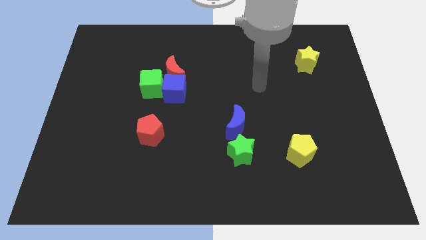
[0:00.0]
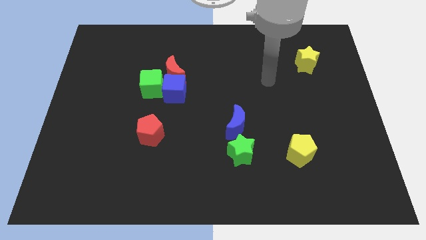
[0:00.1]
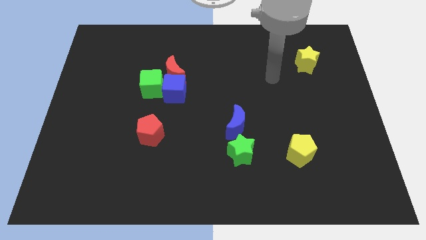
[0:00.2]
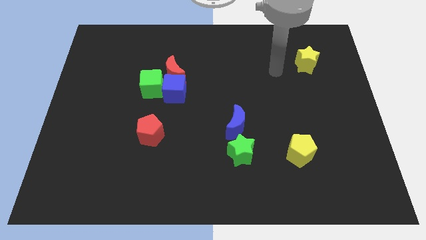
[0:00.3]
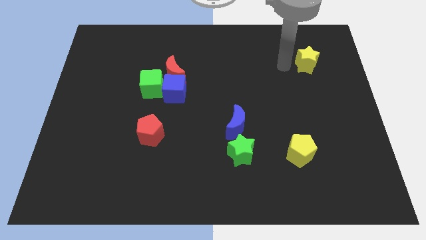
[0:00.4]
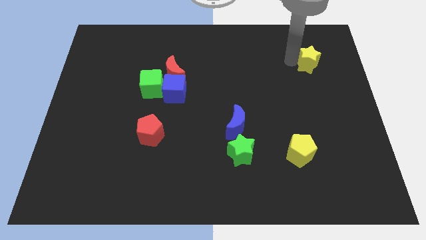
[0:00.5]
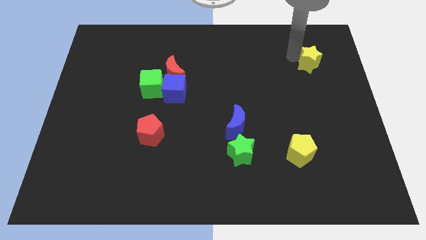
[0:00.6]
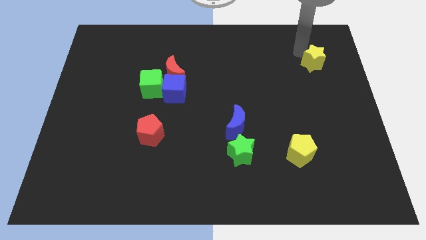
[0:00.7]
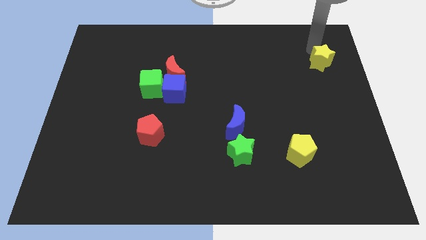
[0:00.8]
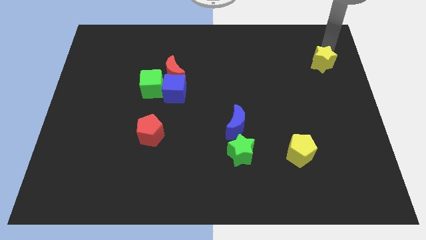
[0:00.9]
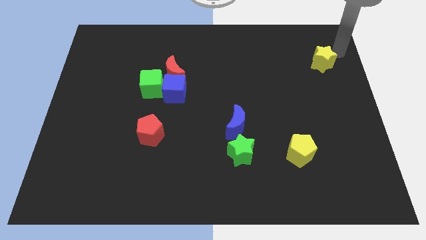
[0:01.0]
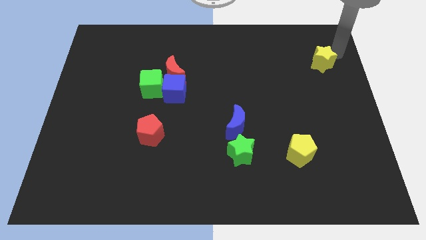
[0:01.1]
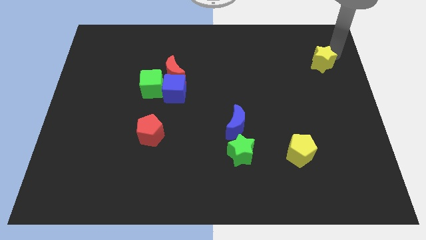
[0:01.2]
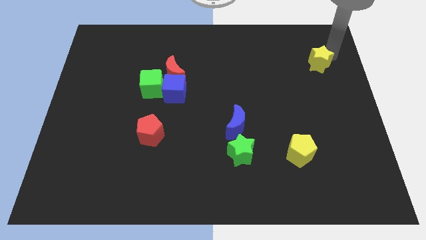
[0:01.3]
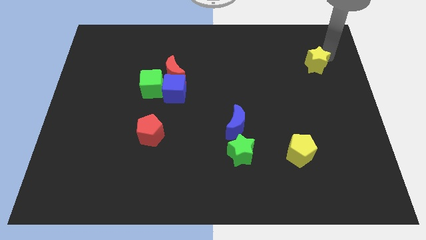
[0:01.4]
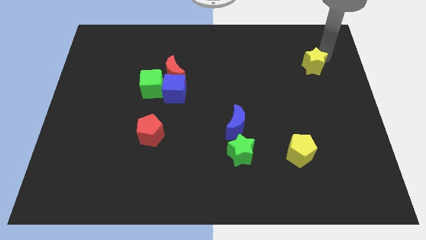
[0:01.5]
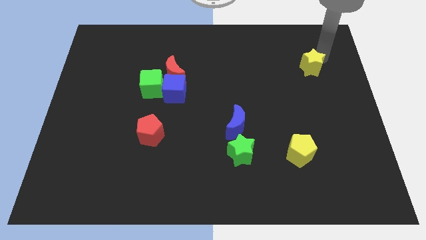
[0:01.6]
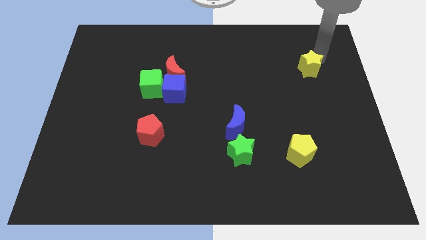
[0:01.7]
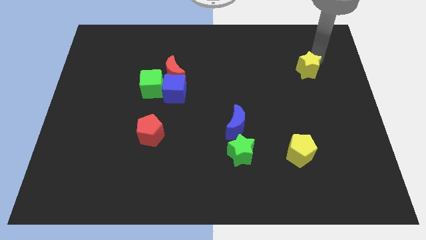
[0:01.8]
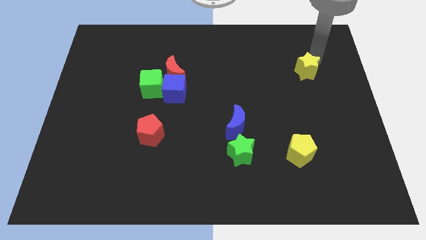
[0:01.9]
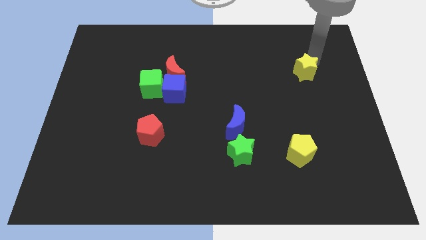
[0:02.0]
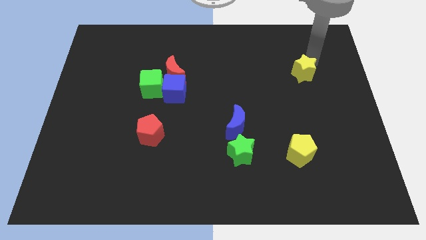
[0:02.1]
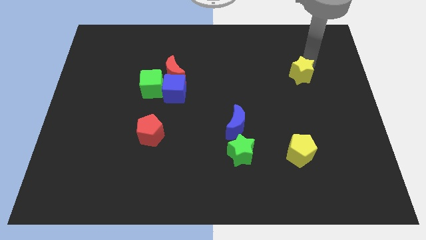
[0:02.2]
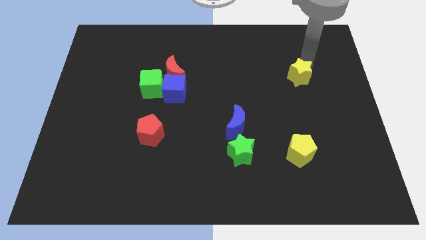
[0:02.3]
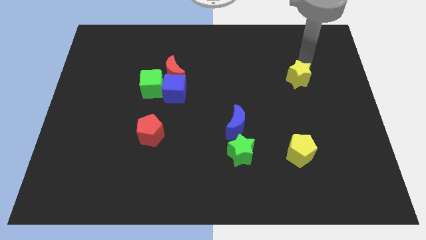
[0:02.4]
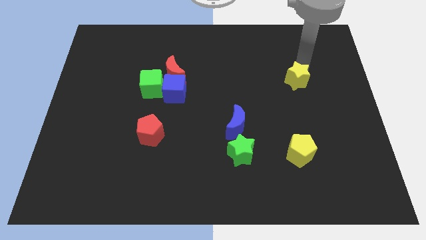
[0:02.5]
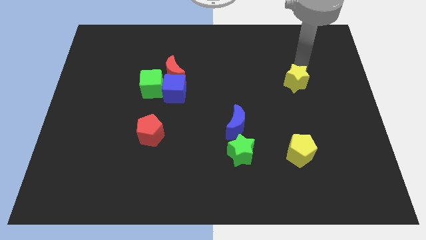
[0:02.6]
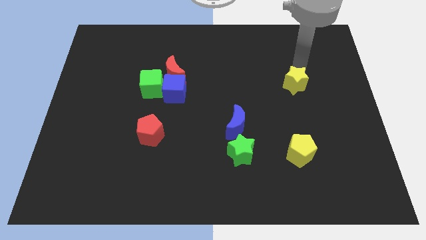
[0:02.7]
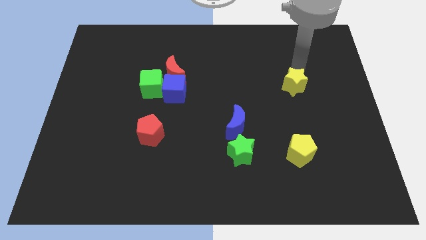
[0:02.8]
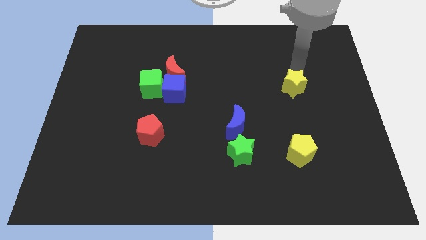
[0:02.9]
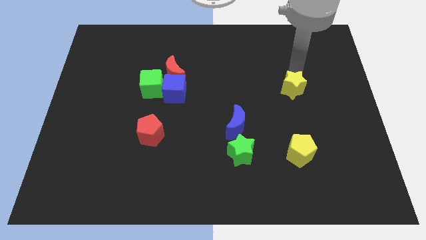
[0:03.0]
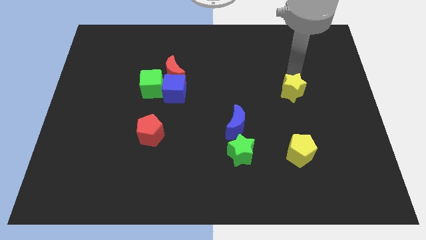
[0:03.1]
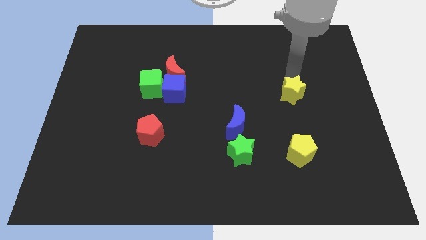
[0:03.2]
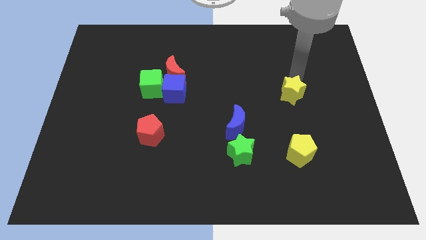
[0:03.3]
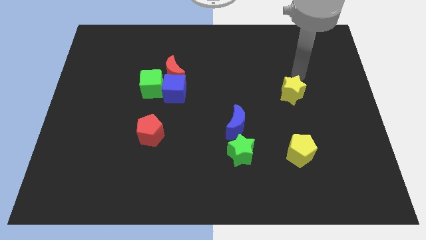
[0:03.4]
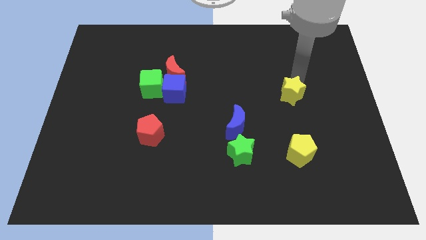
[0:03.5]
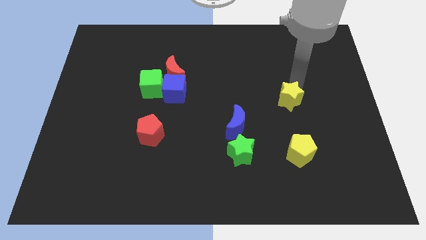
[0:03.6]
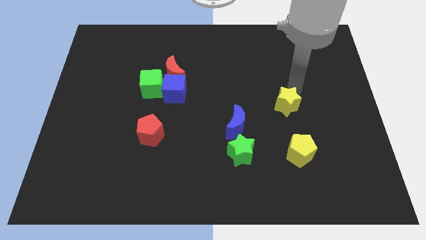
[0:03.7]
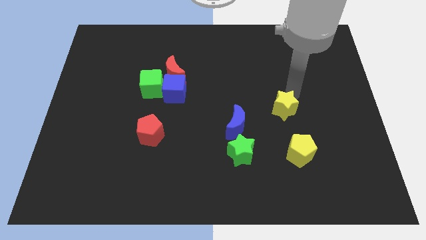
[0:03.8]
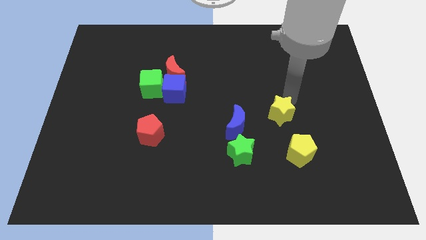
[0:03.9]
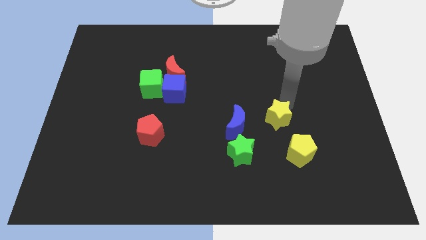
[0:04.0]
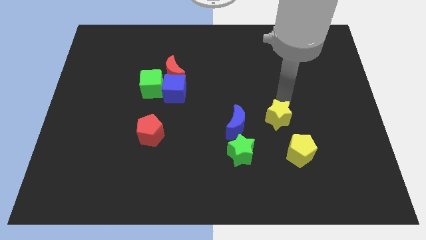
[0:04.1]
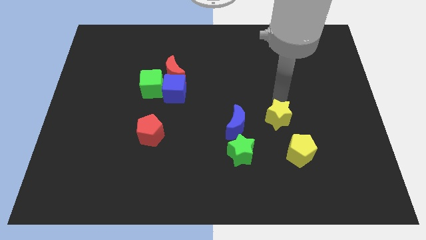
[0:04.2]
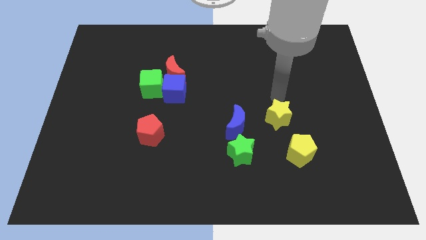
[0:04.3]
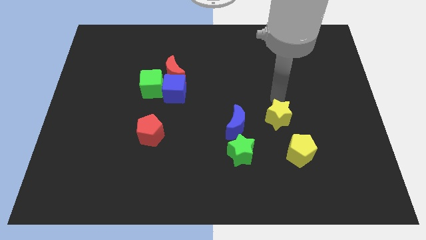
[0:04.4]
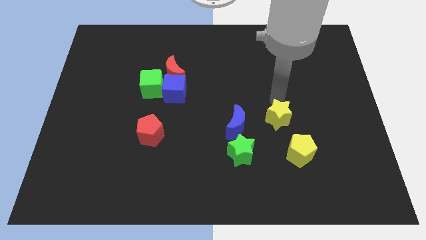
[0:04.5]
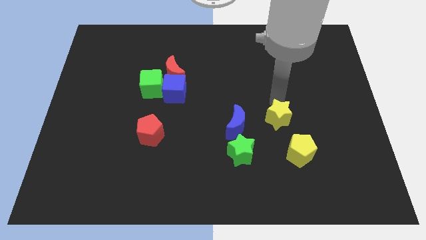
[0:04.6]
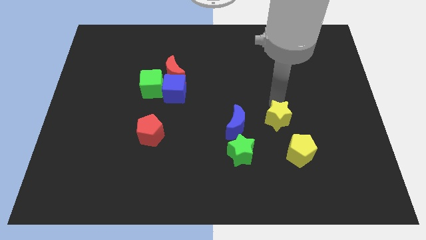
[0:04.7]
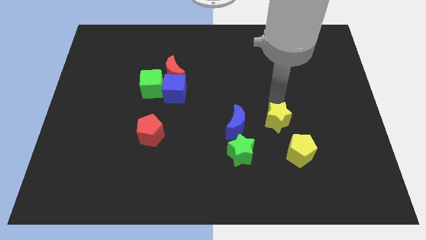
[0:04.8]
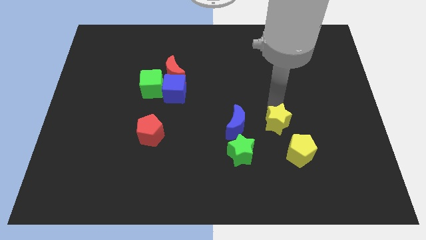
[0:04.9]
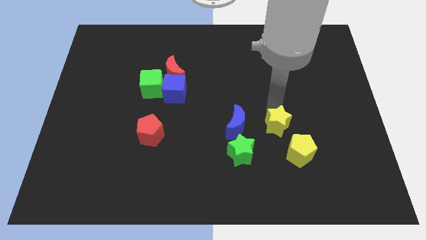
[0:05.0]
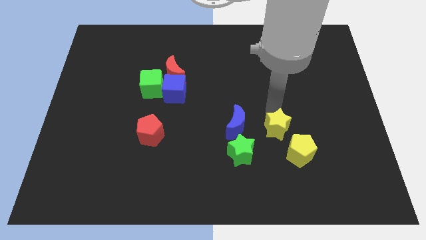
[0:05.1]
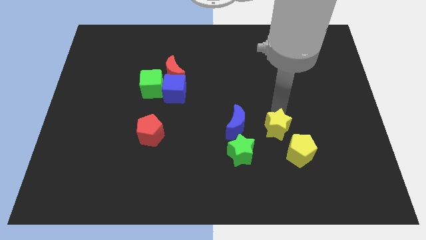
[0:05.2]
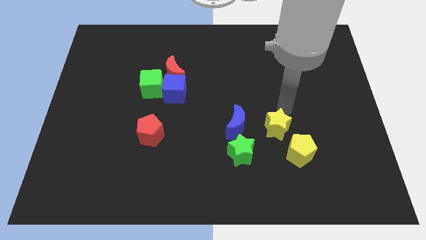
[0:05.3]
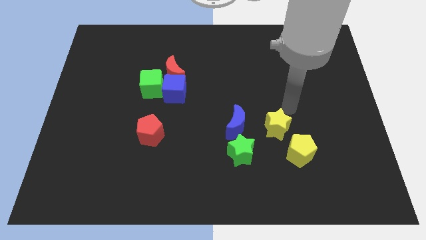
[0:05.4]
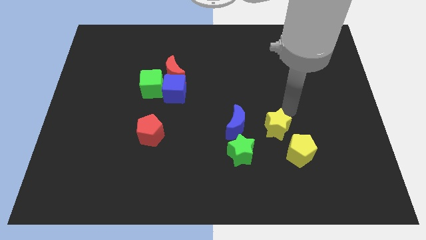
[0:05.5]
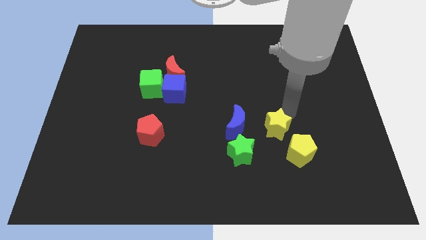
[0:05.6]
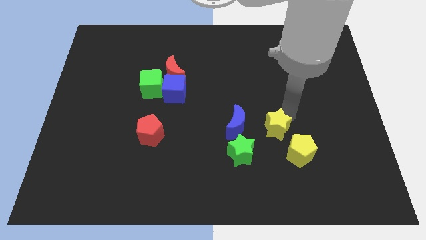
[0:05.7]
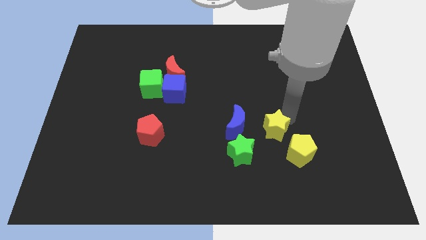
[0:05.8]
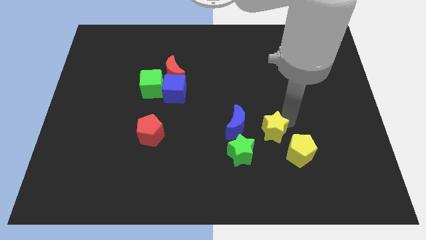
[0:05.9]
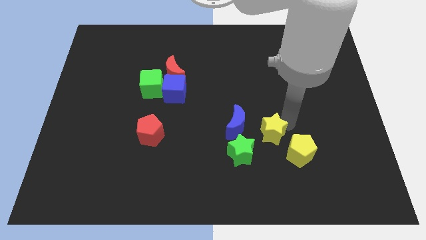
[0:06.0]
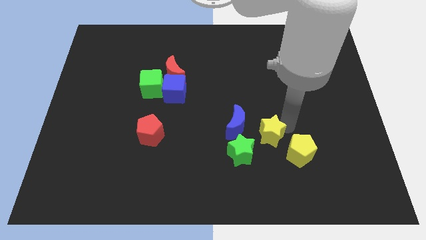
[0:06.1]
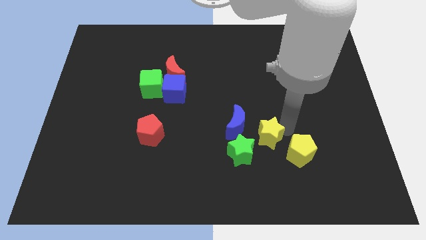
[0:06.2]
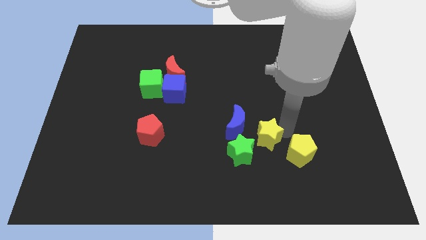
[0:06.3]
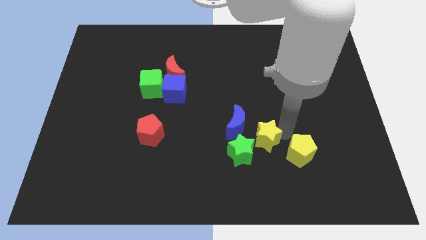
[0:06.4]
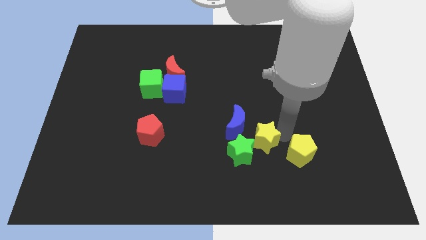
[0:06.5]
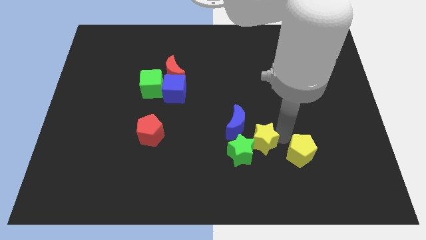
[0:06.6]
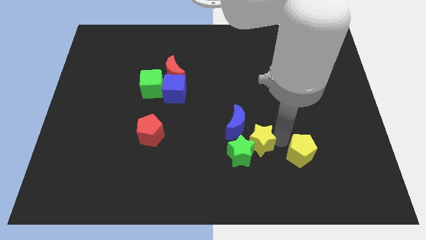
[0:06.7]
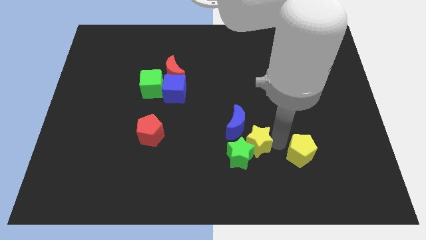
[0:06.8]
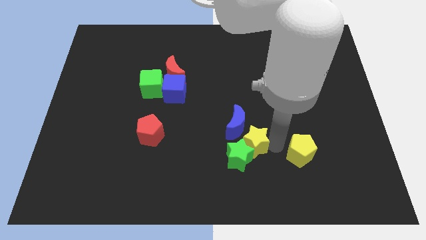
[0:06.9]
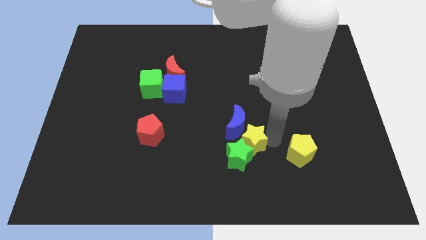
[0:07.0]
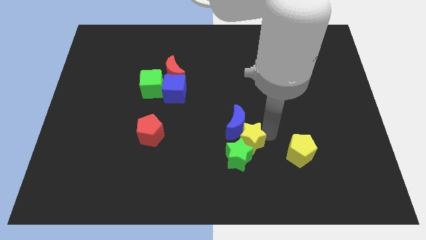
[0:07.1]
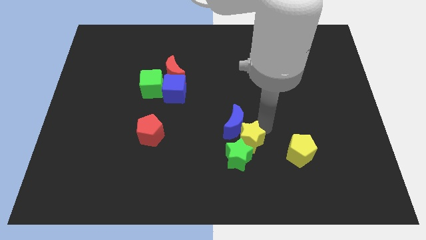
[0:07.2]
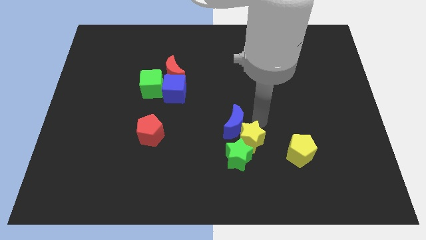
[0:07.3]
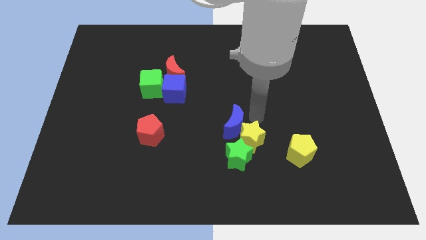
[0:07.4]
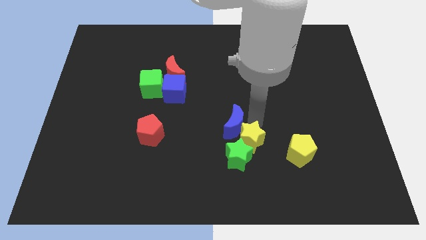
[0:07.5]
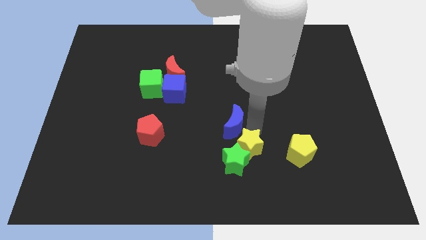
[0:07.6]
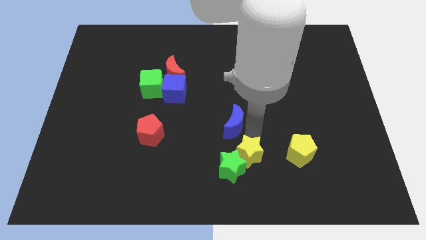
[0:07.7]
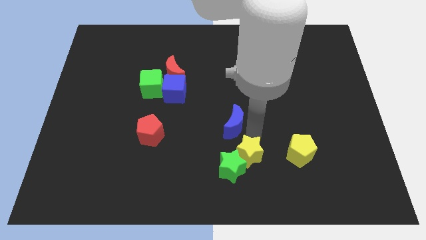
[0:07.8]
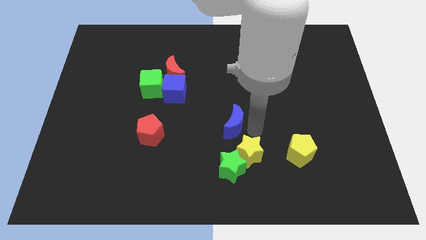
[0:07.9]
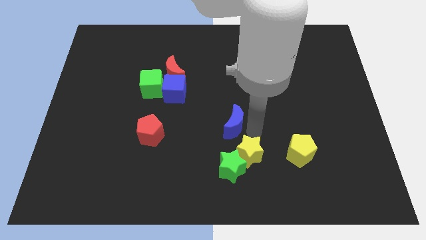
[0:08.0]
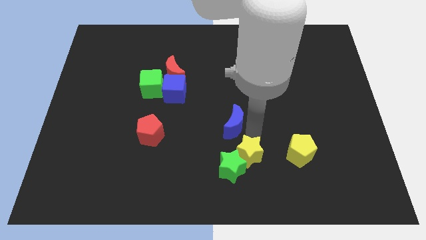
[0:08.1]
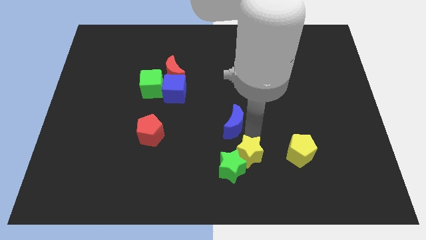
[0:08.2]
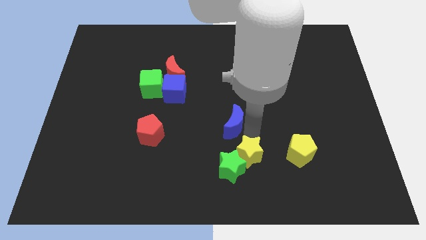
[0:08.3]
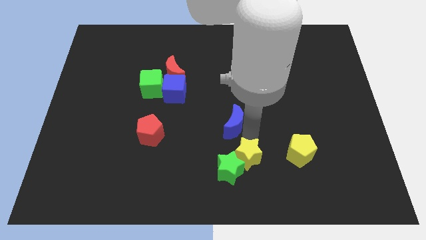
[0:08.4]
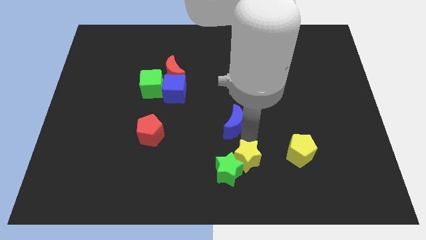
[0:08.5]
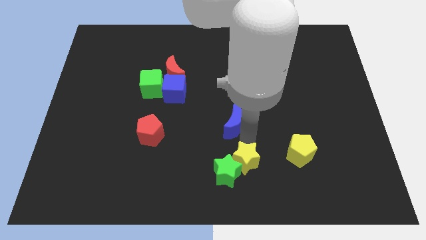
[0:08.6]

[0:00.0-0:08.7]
put the yellow star to the bottom side
